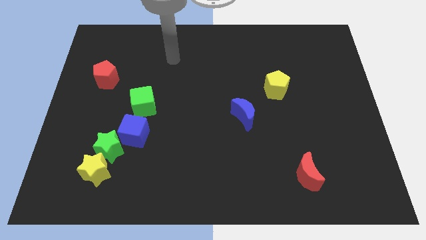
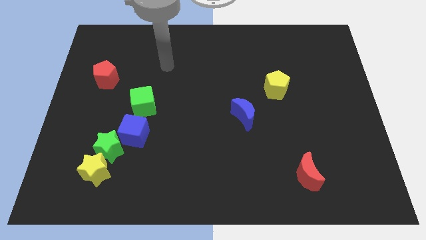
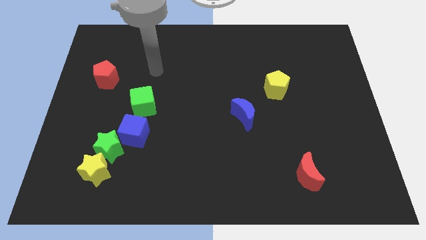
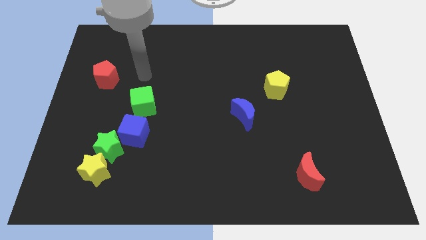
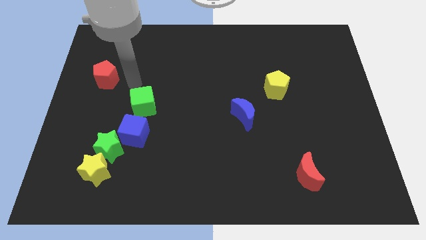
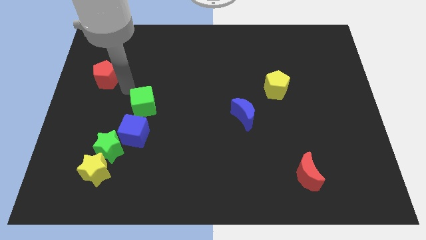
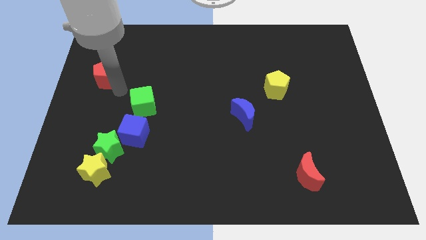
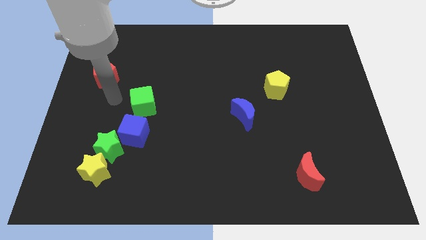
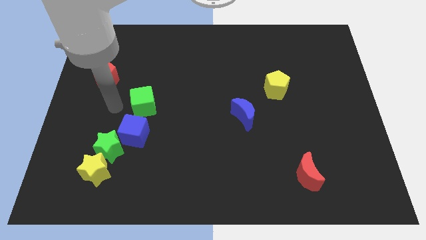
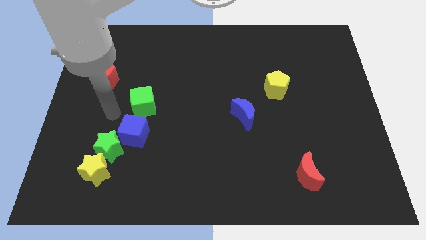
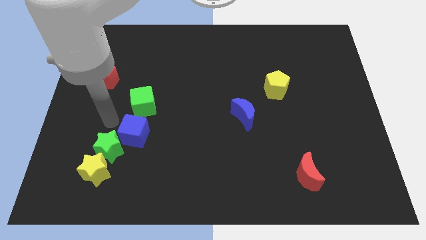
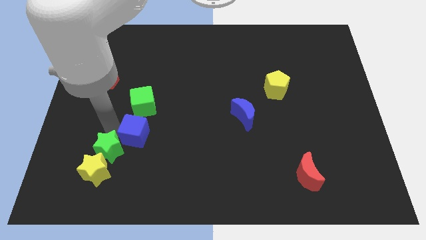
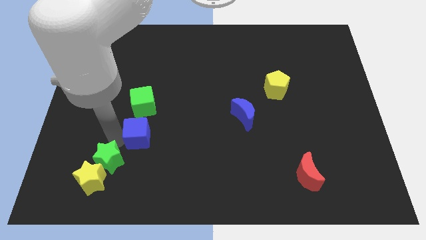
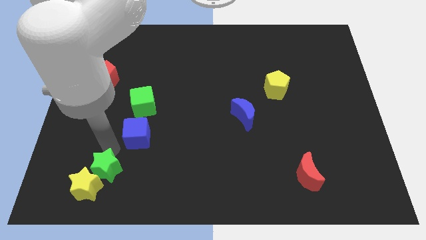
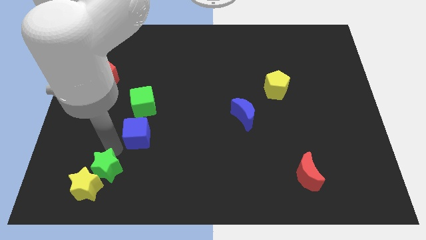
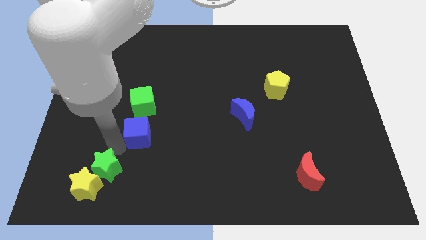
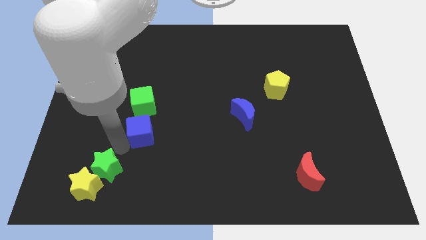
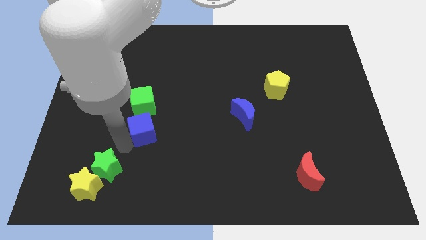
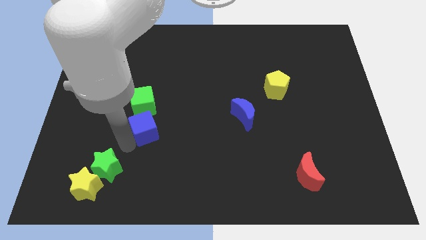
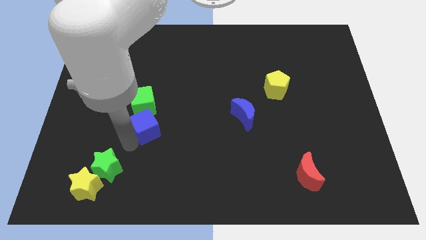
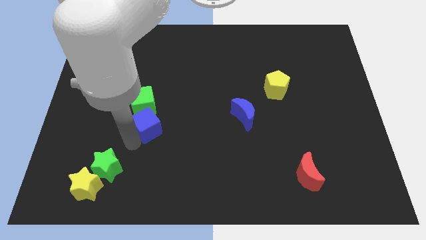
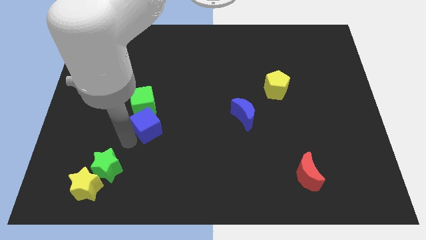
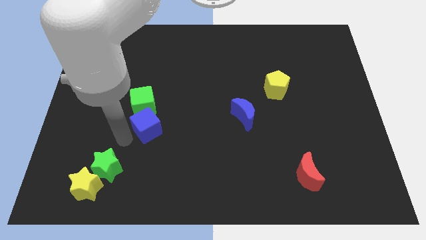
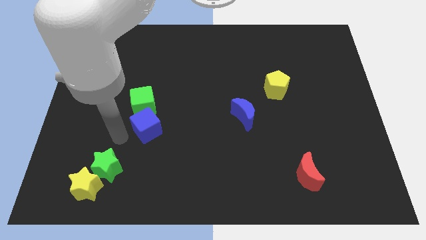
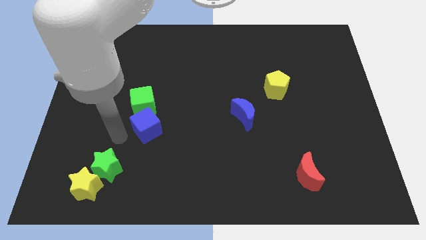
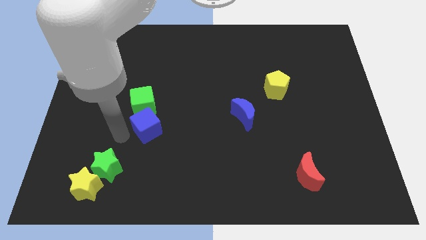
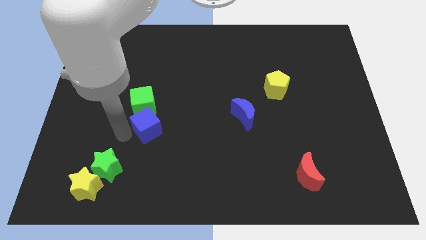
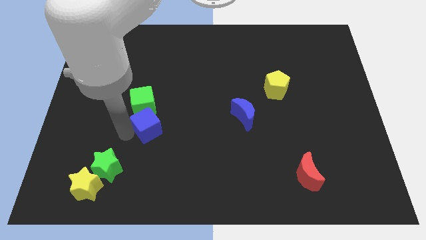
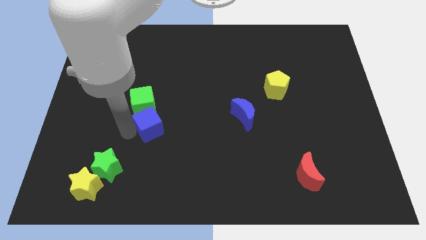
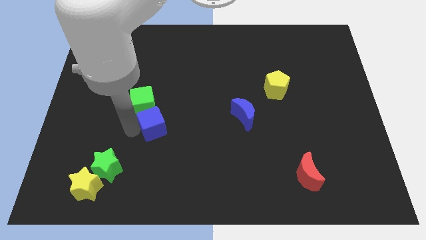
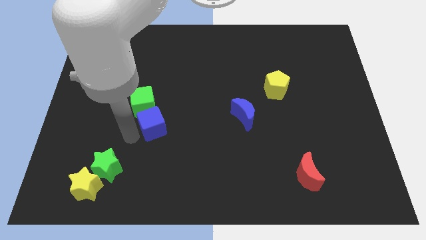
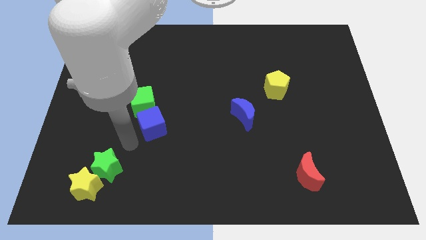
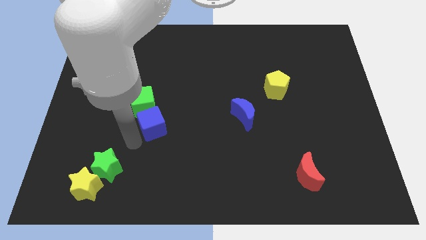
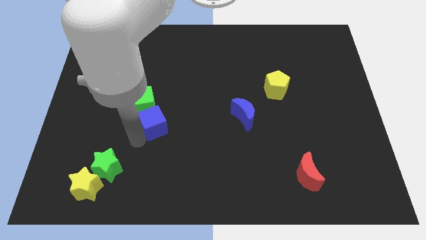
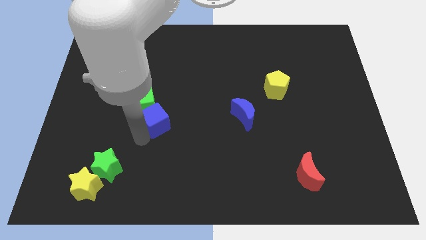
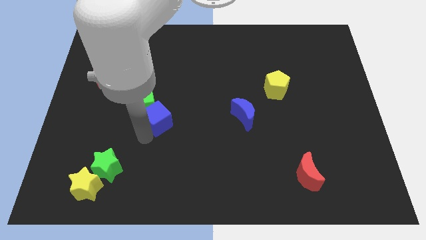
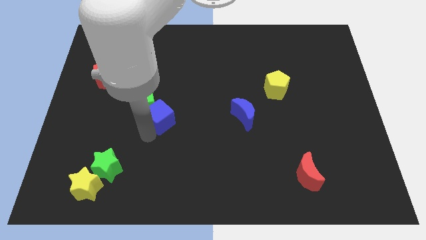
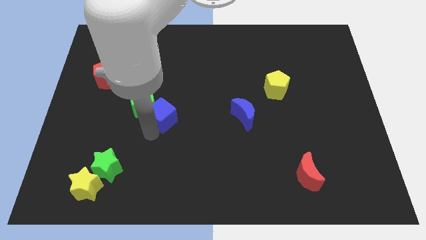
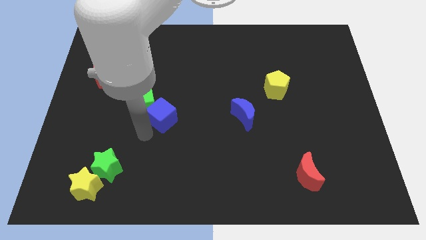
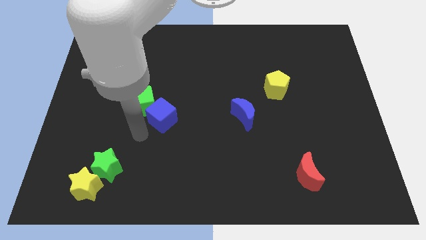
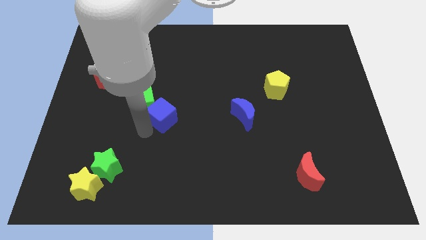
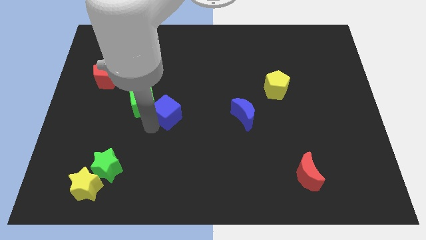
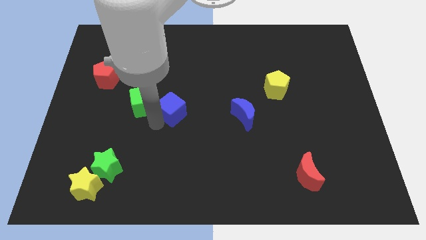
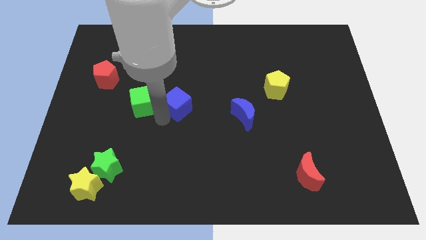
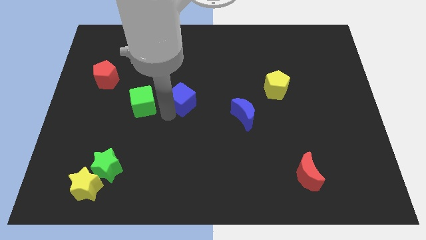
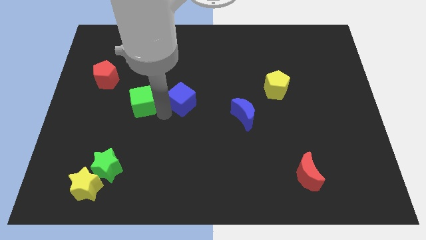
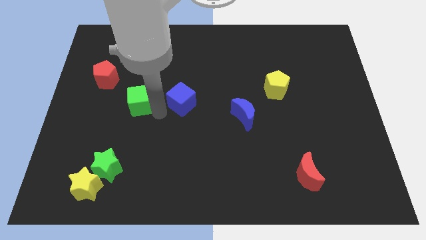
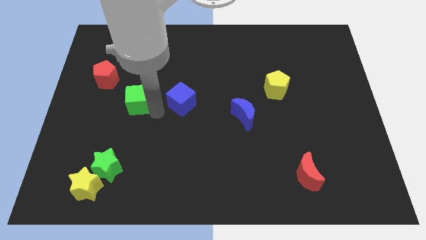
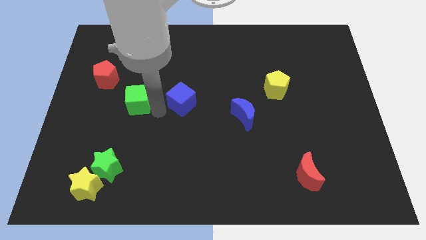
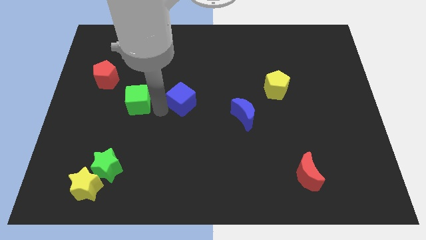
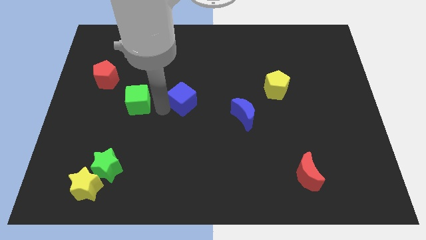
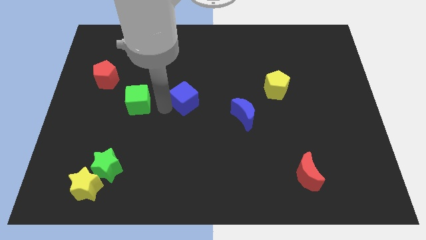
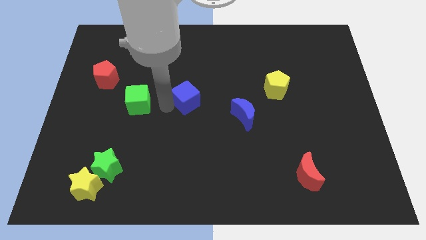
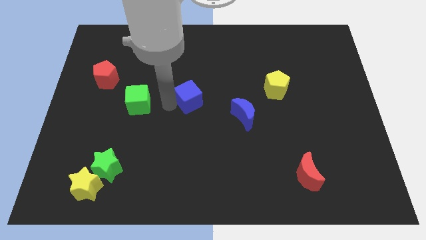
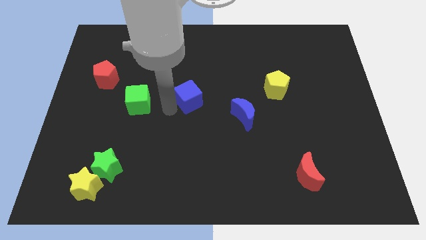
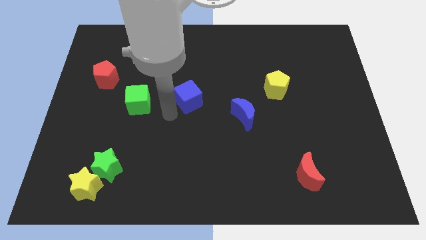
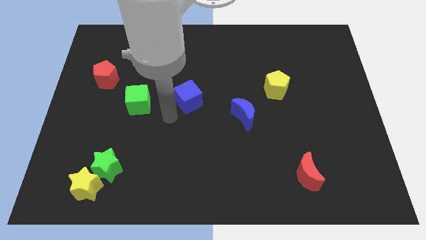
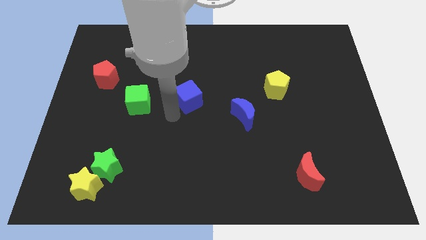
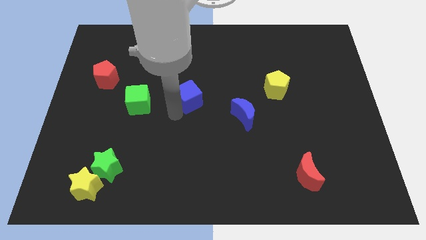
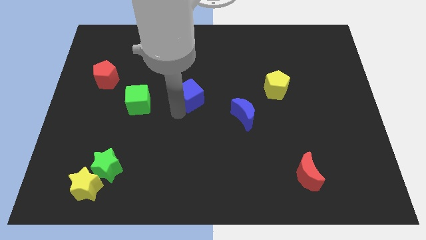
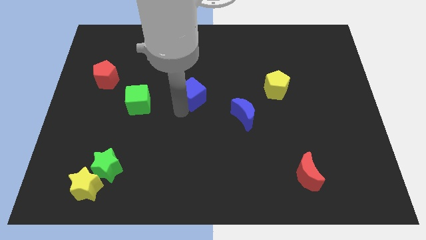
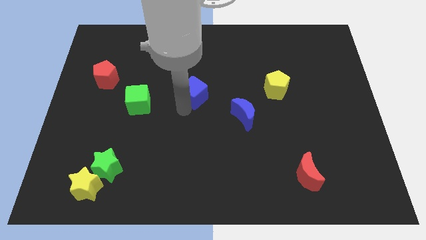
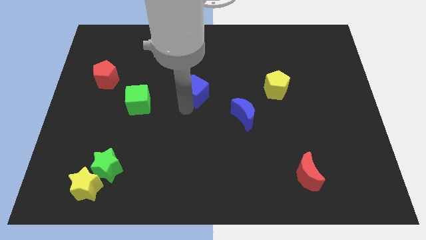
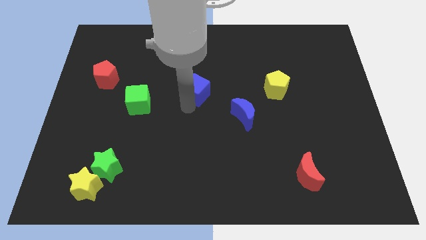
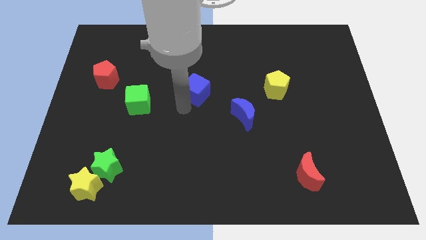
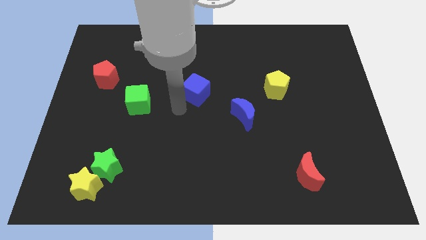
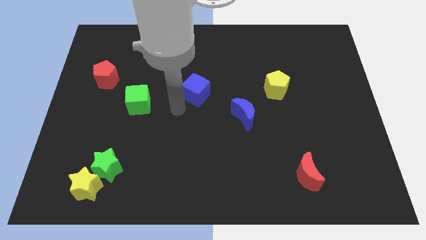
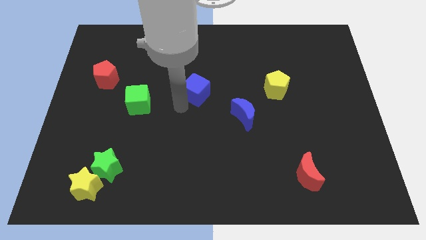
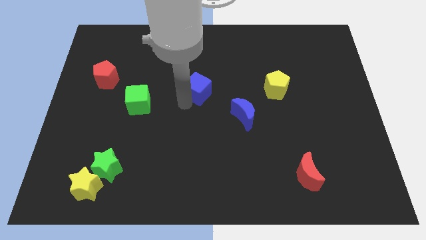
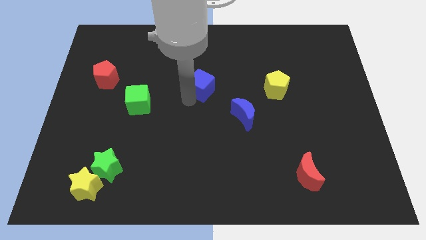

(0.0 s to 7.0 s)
push the blue cube up and to the right

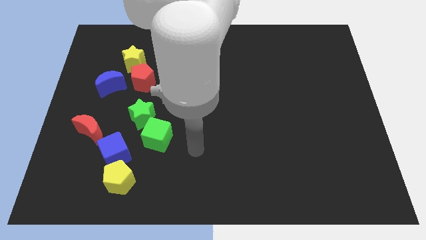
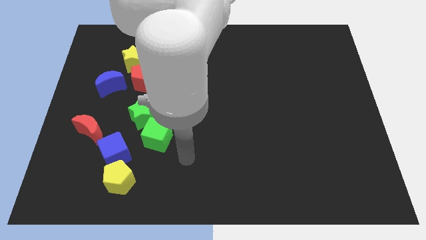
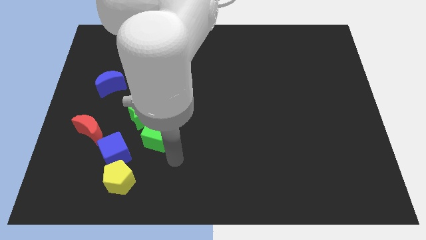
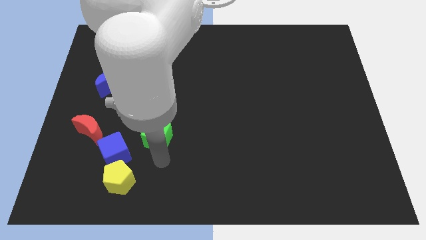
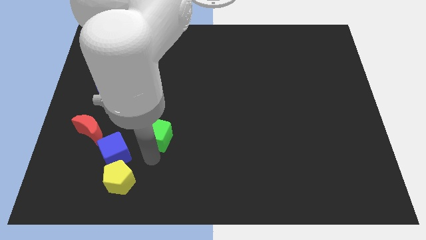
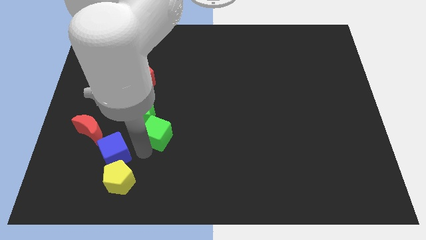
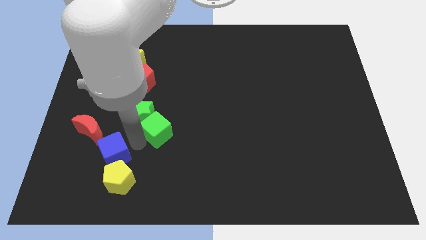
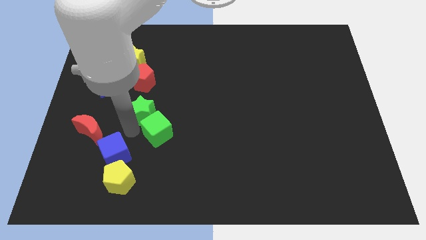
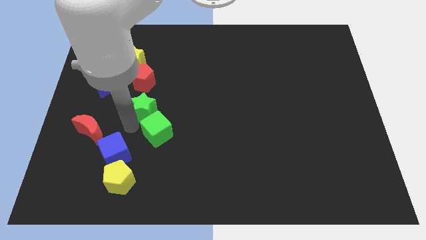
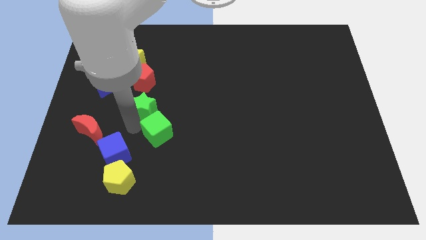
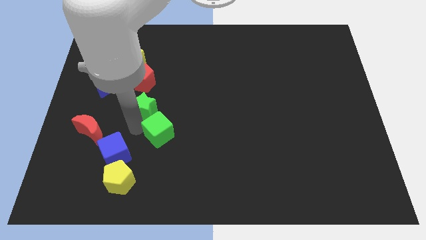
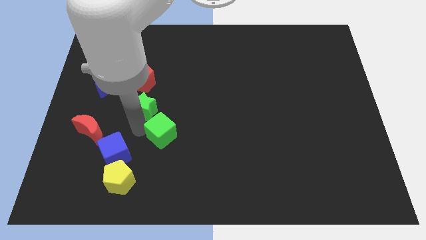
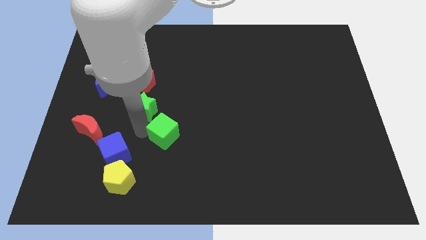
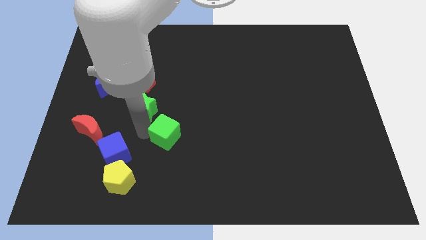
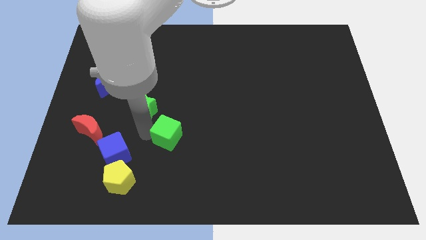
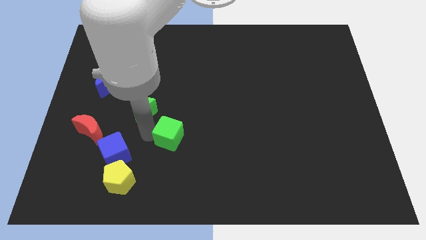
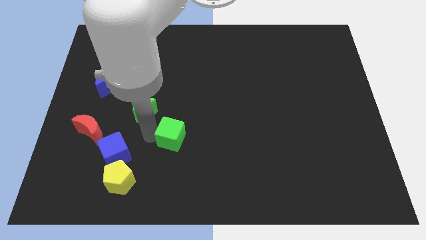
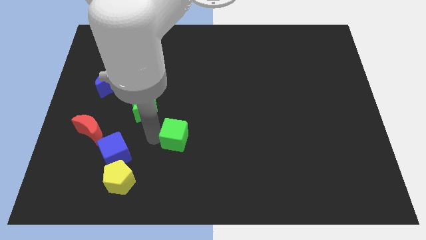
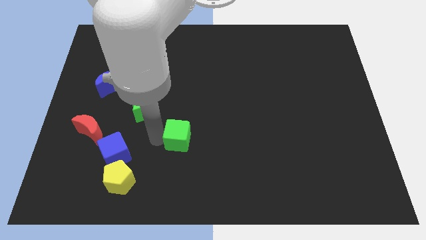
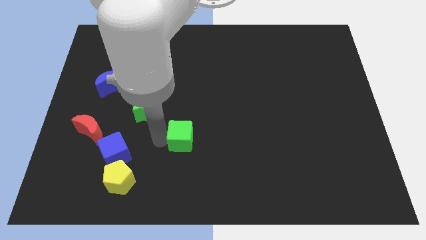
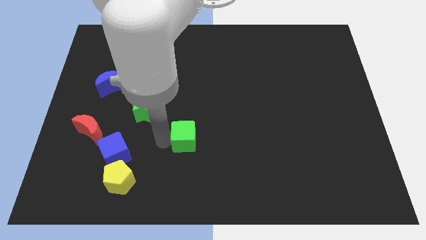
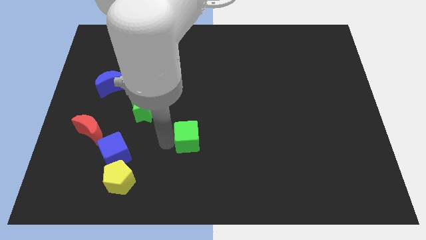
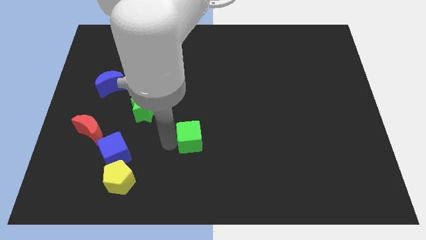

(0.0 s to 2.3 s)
slightly move the green cube right
